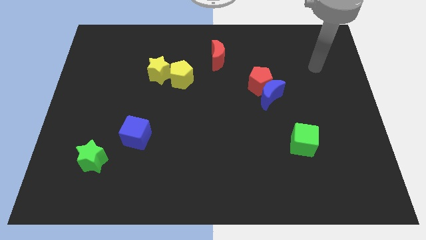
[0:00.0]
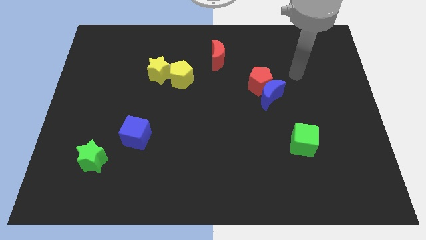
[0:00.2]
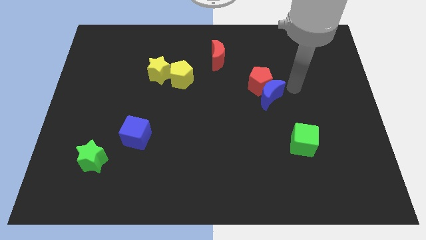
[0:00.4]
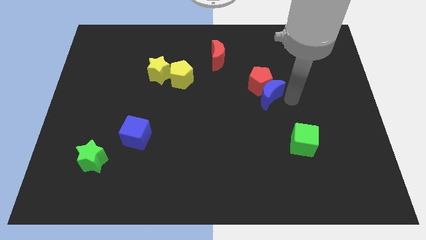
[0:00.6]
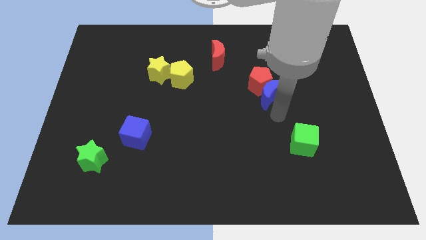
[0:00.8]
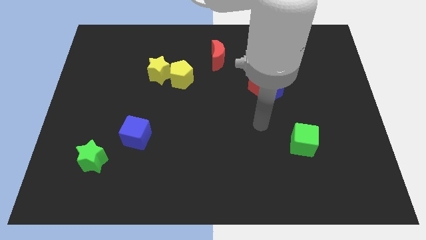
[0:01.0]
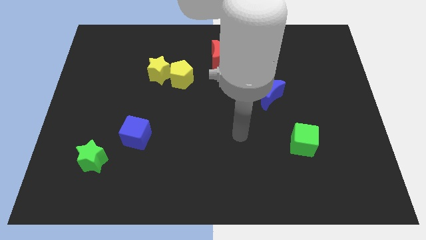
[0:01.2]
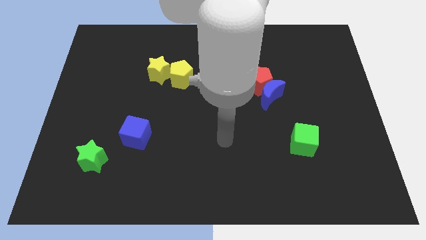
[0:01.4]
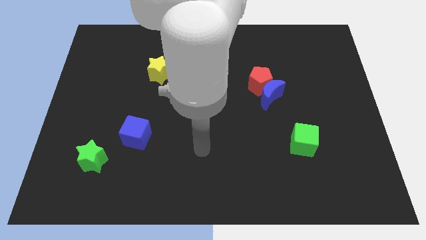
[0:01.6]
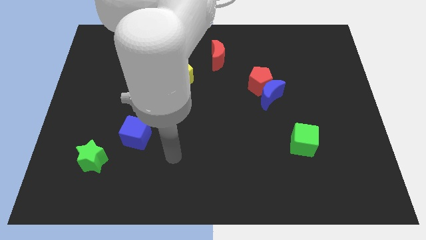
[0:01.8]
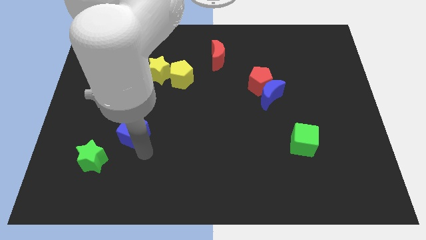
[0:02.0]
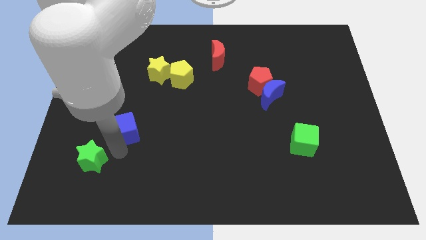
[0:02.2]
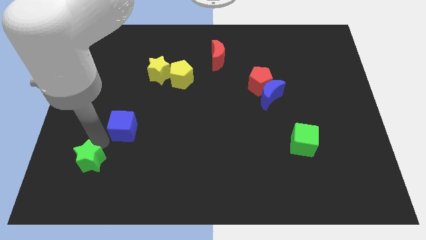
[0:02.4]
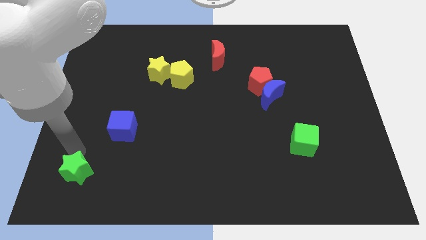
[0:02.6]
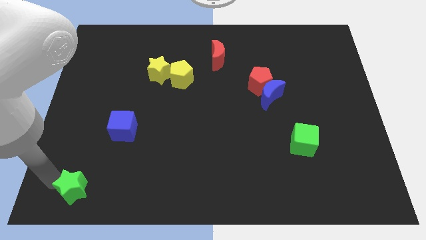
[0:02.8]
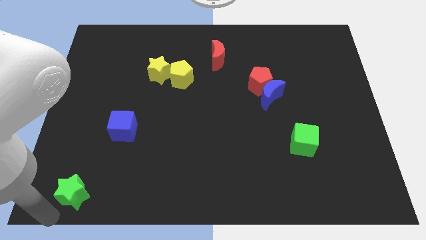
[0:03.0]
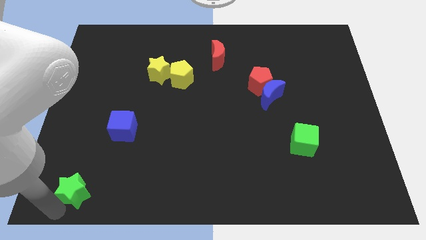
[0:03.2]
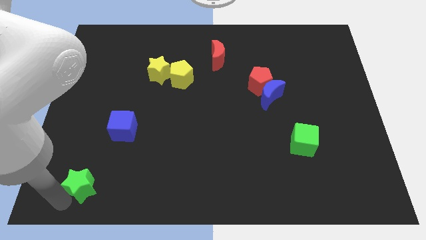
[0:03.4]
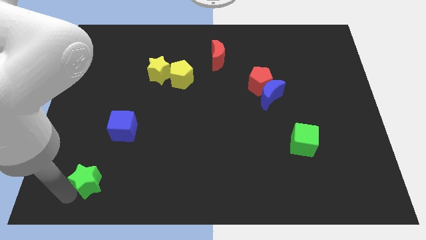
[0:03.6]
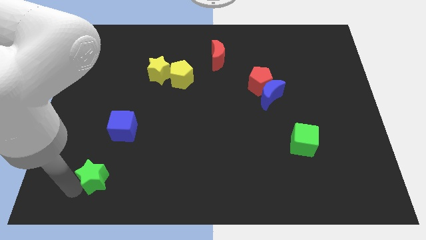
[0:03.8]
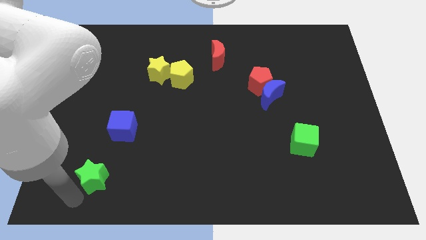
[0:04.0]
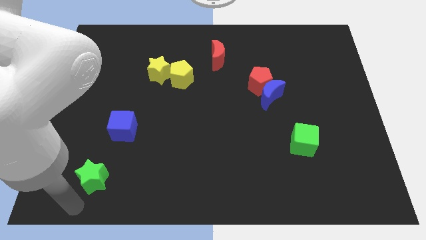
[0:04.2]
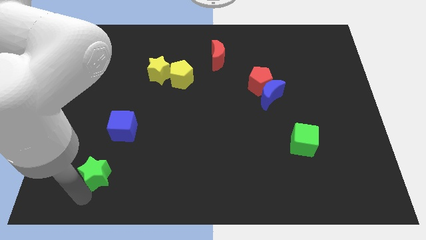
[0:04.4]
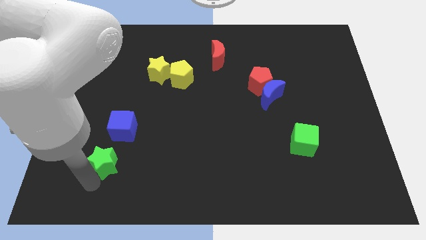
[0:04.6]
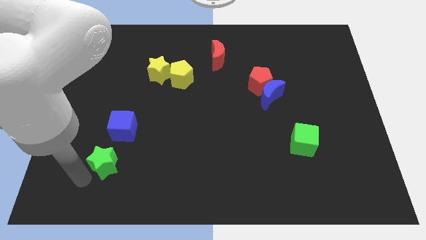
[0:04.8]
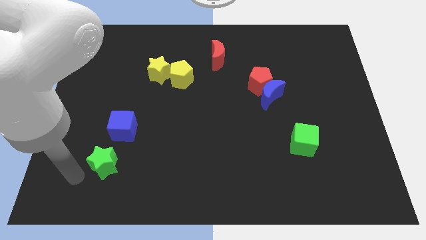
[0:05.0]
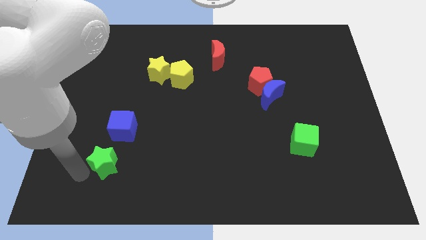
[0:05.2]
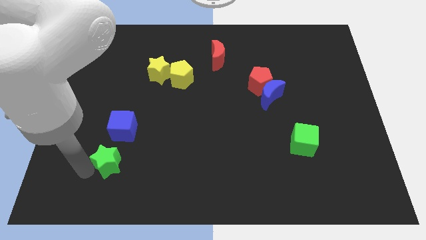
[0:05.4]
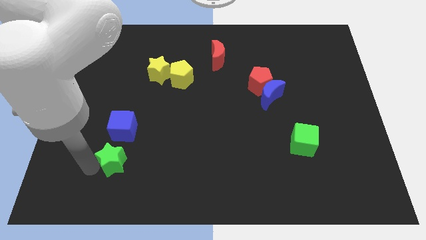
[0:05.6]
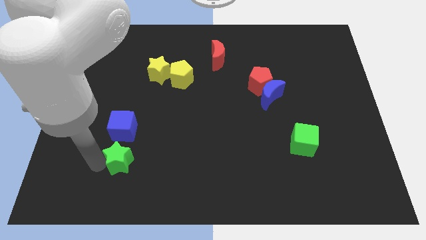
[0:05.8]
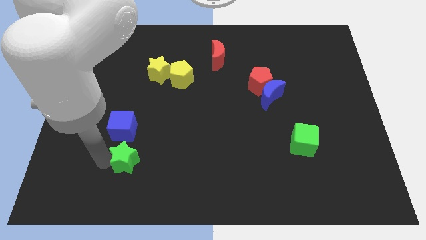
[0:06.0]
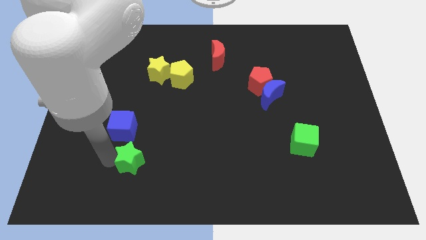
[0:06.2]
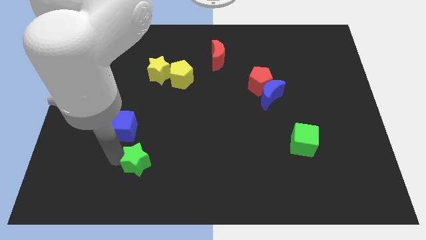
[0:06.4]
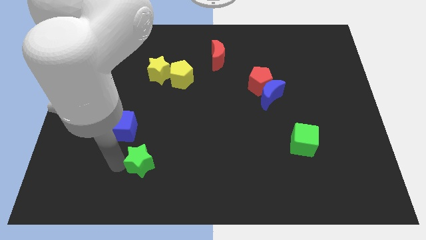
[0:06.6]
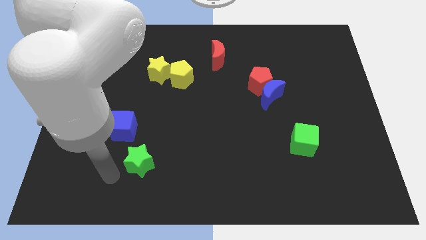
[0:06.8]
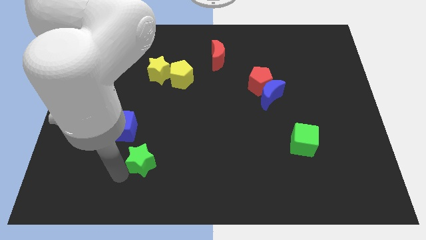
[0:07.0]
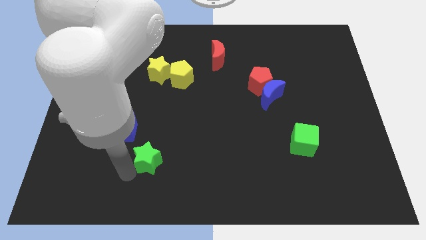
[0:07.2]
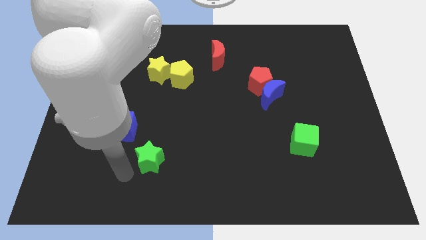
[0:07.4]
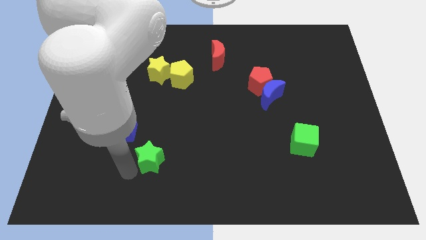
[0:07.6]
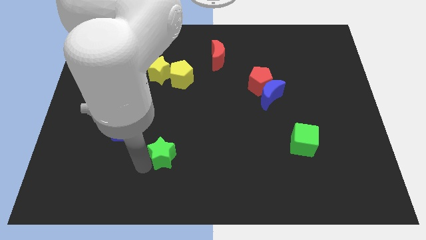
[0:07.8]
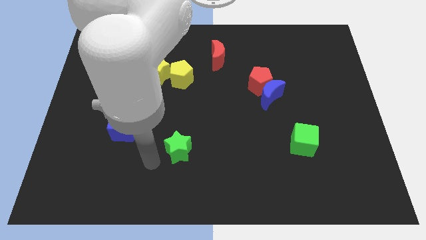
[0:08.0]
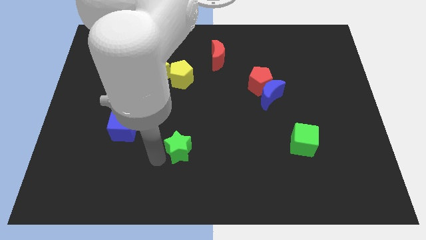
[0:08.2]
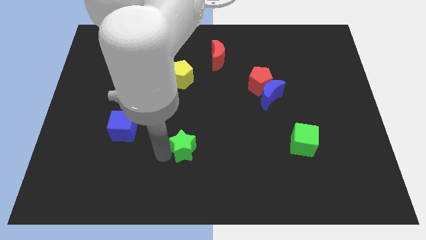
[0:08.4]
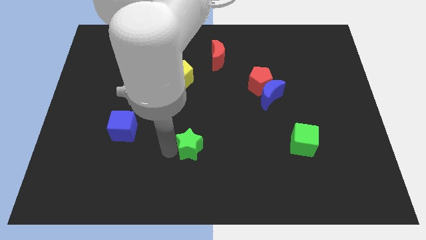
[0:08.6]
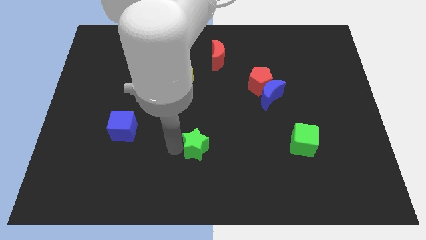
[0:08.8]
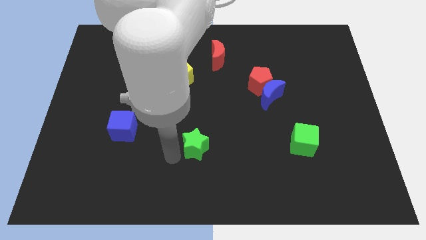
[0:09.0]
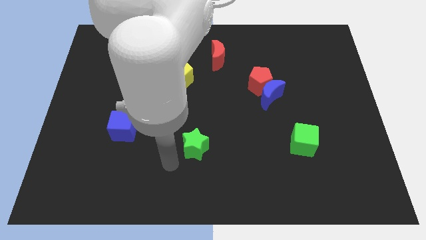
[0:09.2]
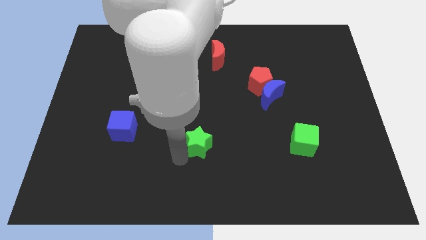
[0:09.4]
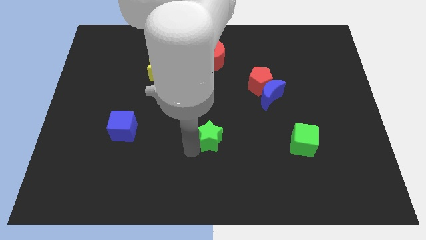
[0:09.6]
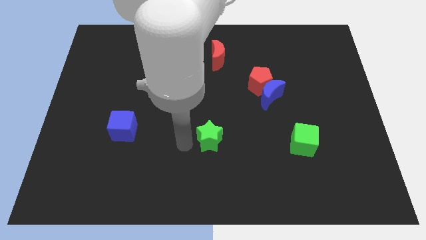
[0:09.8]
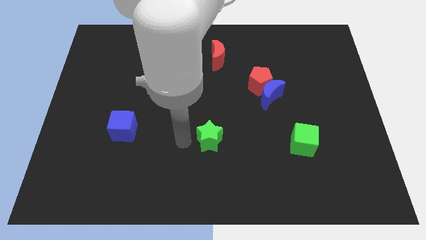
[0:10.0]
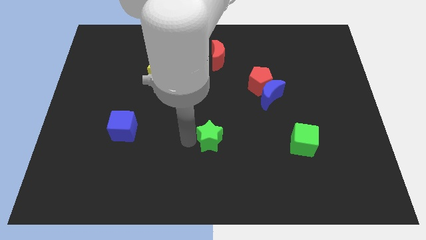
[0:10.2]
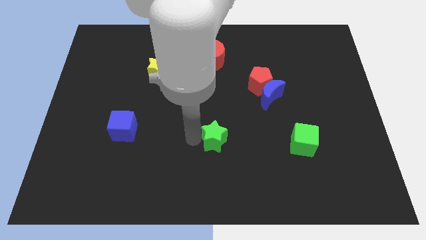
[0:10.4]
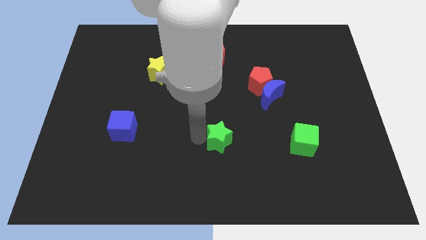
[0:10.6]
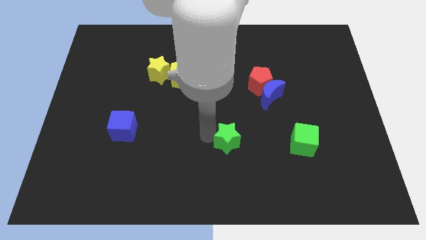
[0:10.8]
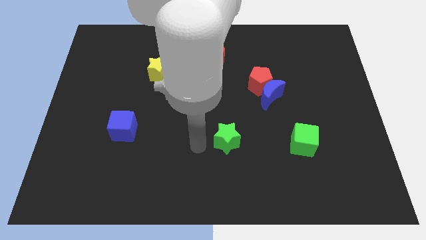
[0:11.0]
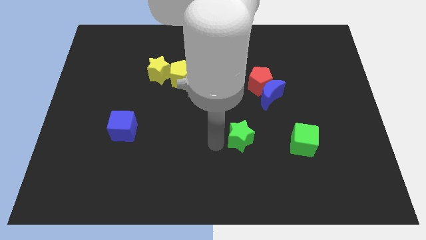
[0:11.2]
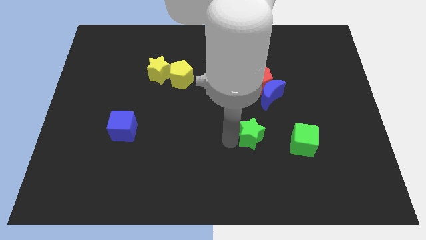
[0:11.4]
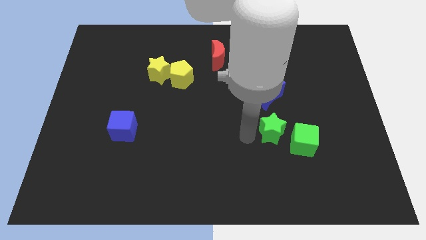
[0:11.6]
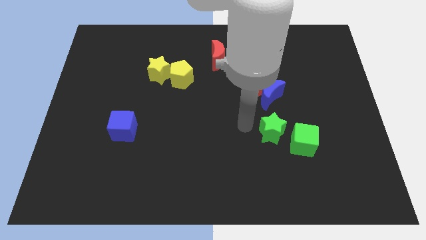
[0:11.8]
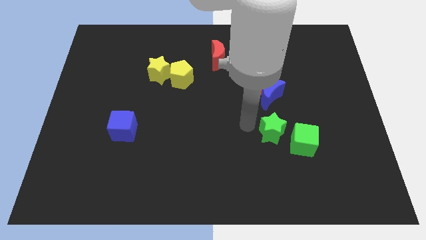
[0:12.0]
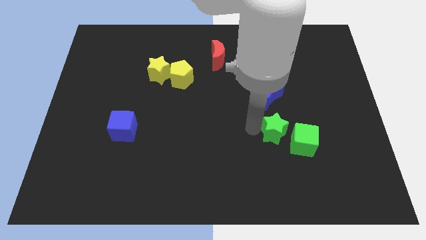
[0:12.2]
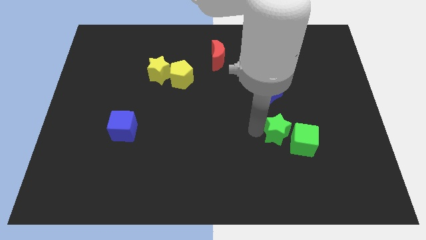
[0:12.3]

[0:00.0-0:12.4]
push the green star towards the green cube

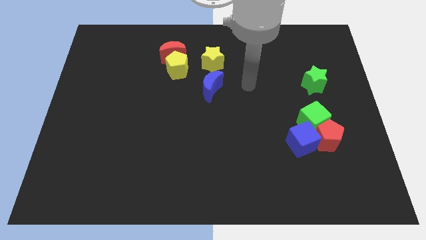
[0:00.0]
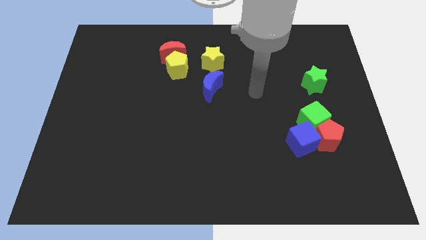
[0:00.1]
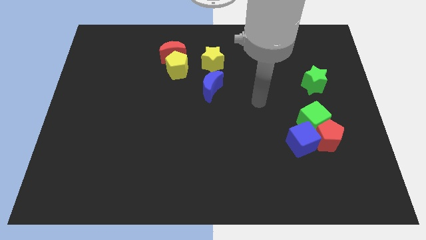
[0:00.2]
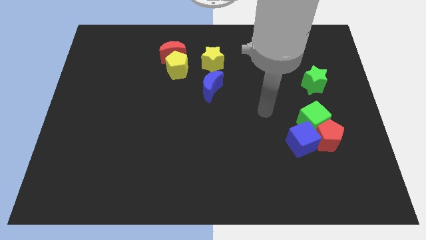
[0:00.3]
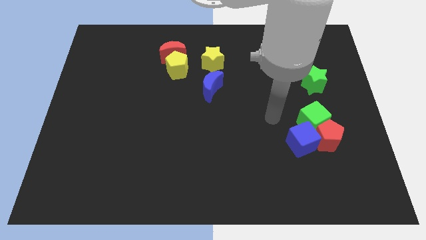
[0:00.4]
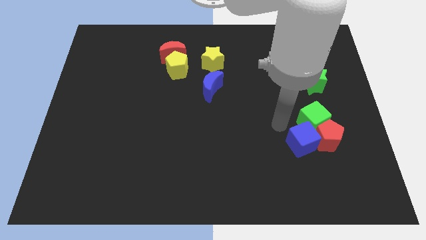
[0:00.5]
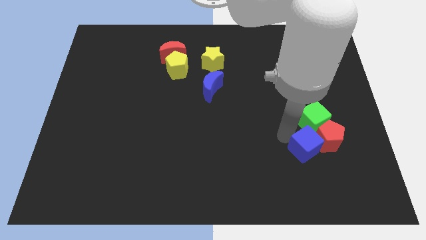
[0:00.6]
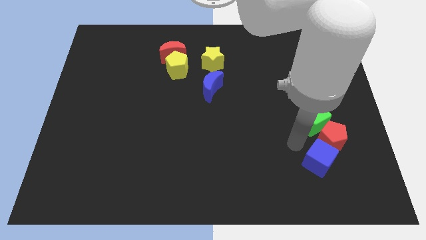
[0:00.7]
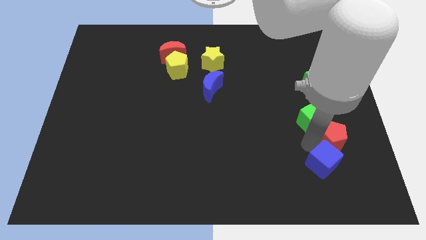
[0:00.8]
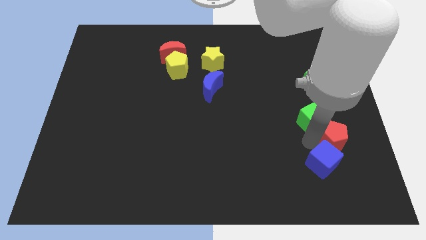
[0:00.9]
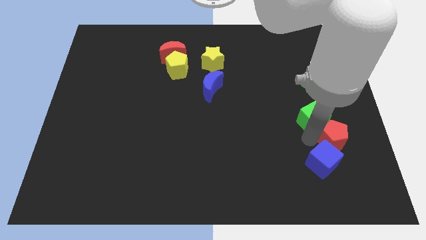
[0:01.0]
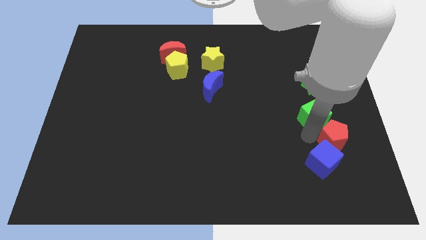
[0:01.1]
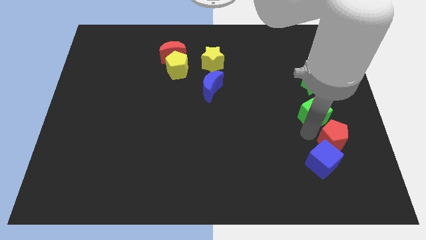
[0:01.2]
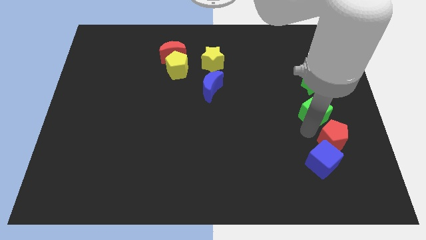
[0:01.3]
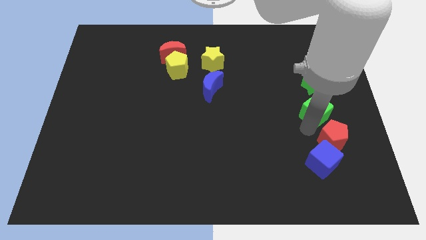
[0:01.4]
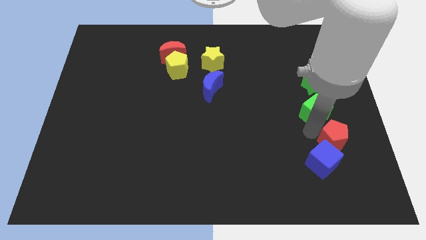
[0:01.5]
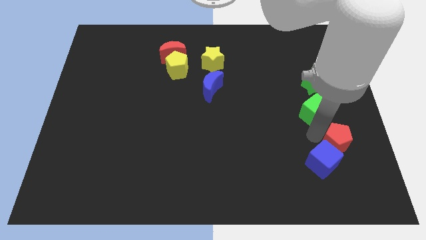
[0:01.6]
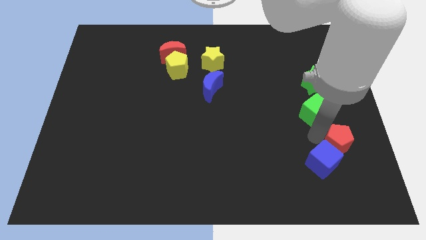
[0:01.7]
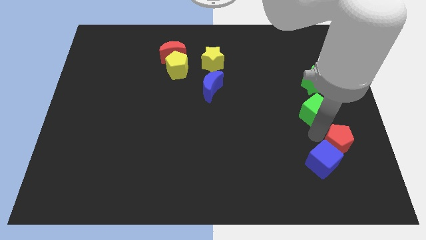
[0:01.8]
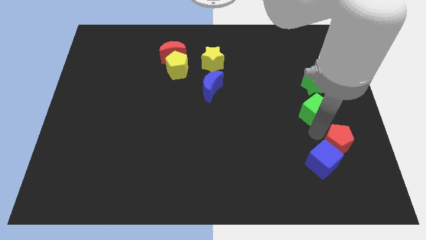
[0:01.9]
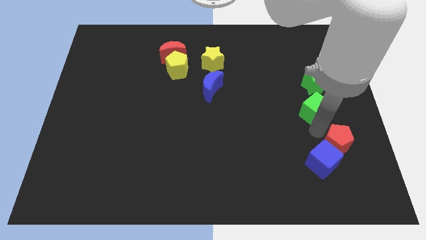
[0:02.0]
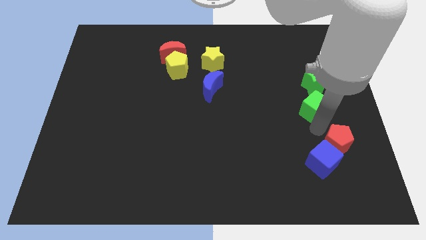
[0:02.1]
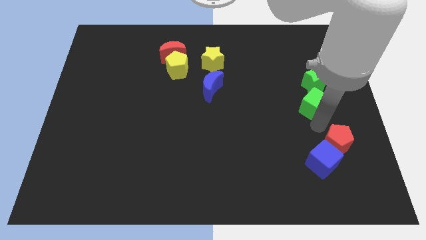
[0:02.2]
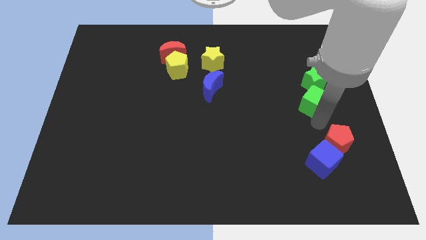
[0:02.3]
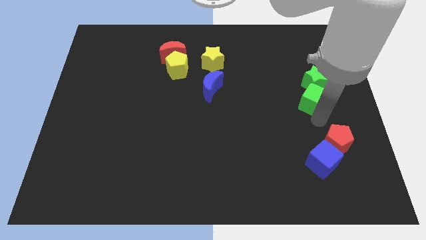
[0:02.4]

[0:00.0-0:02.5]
push the green cube close to the green star
